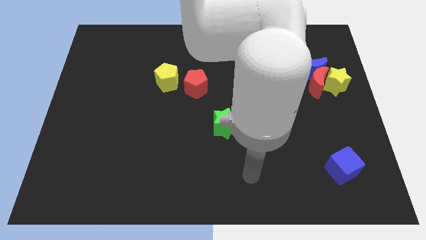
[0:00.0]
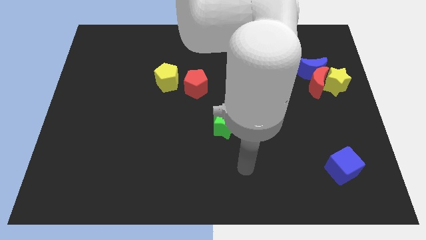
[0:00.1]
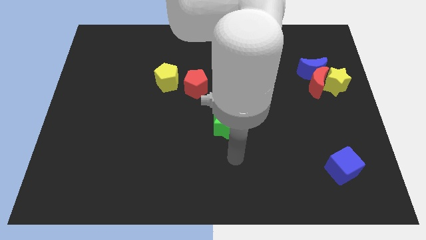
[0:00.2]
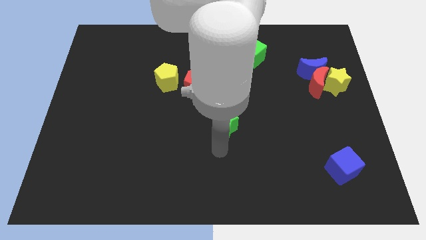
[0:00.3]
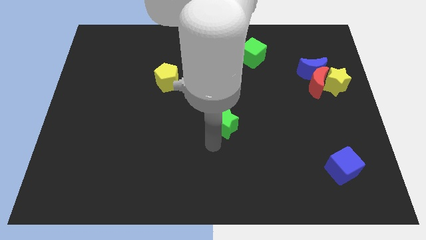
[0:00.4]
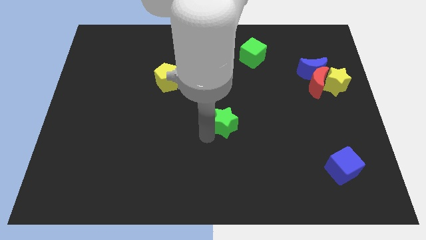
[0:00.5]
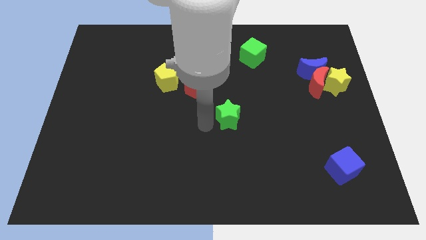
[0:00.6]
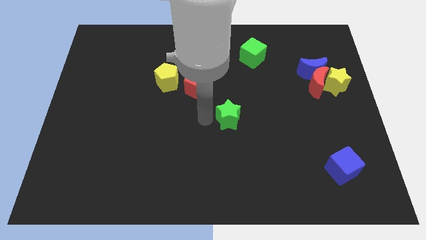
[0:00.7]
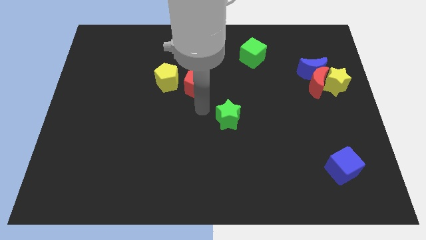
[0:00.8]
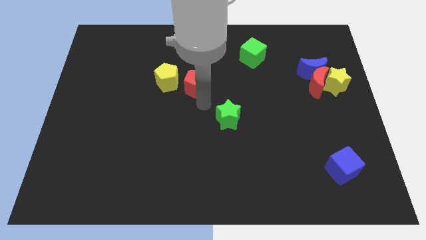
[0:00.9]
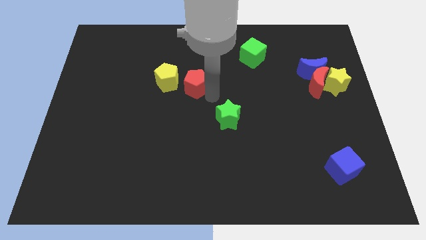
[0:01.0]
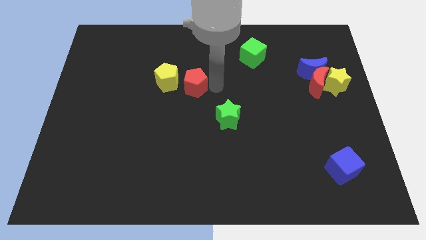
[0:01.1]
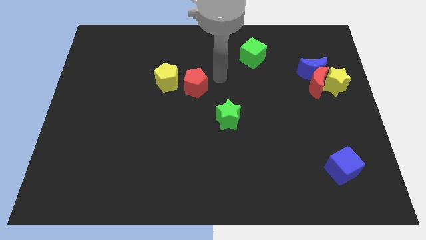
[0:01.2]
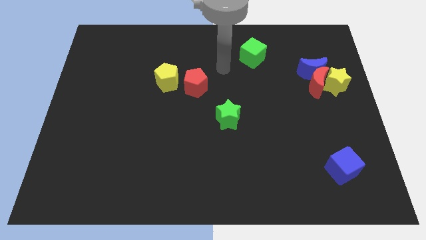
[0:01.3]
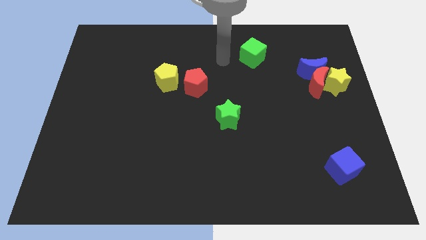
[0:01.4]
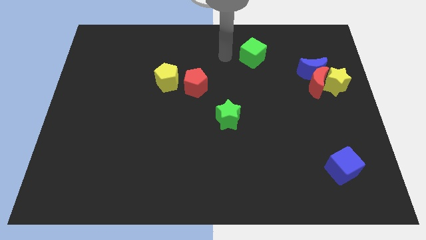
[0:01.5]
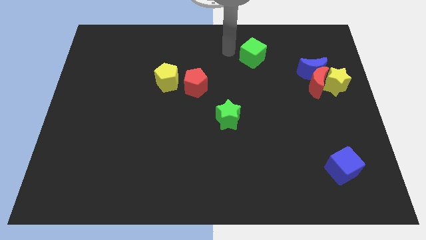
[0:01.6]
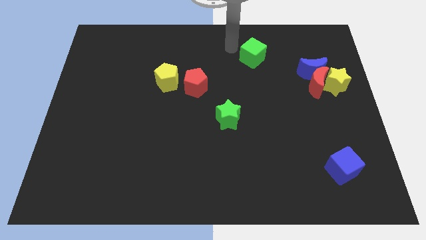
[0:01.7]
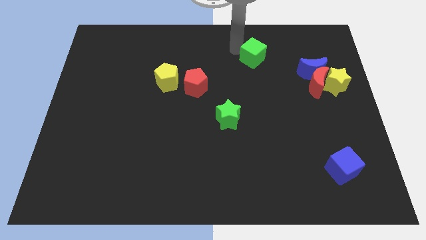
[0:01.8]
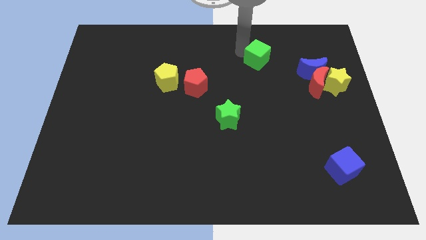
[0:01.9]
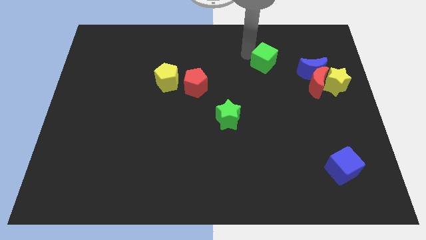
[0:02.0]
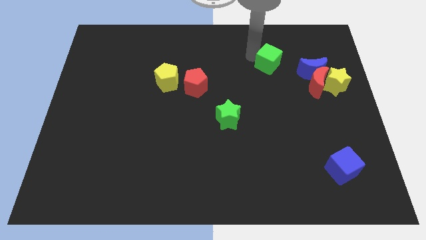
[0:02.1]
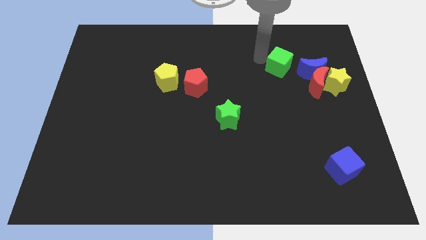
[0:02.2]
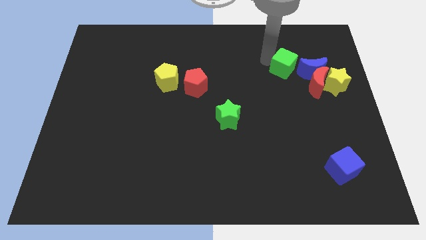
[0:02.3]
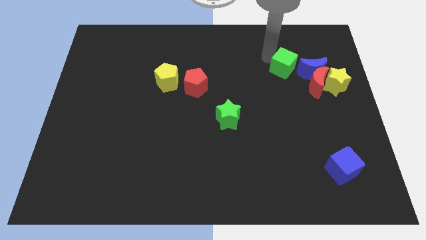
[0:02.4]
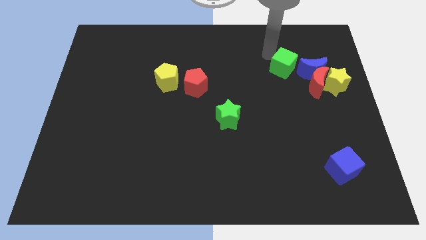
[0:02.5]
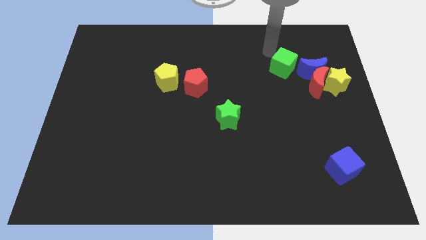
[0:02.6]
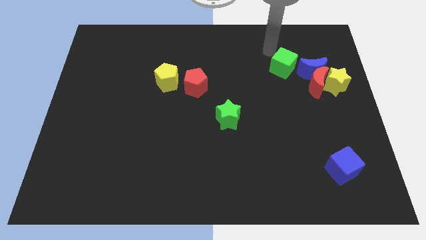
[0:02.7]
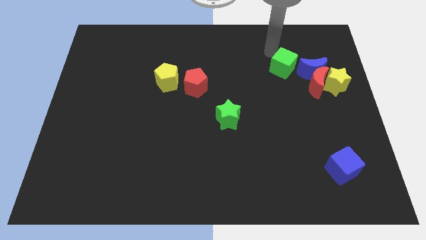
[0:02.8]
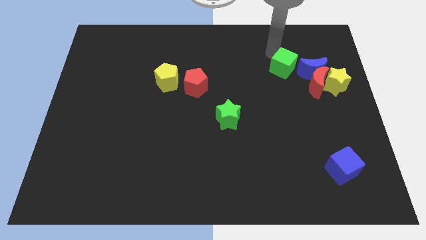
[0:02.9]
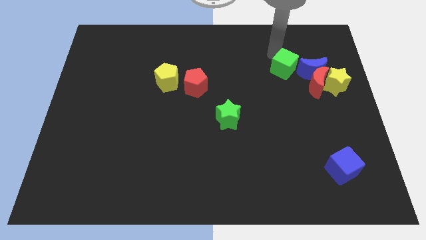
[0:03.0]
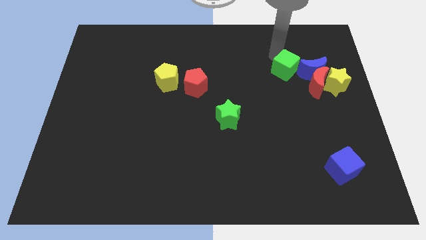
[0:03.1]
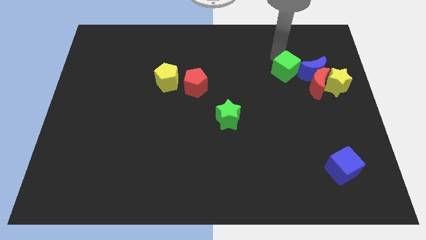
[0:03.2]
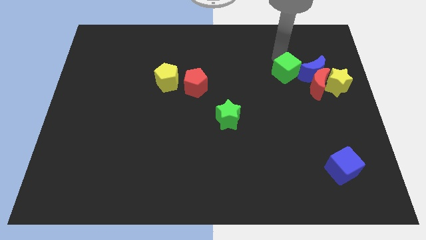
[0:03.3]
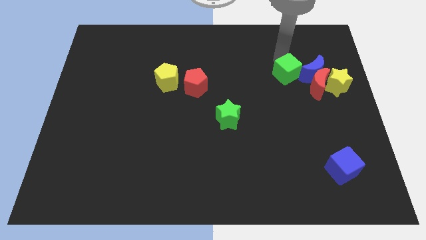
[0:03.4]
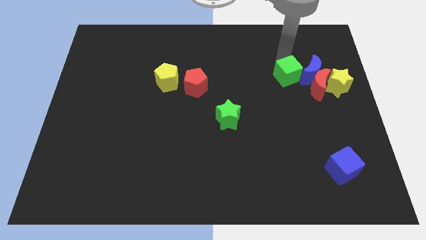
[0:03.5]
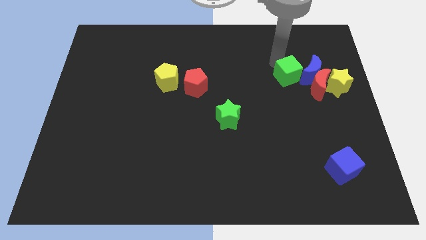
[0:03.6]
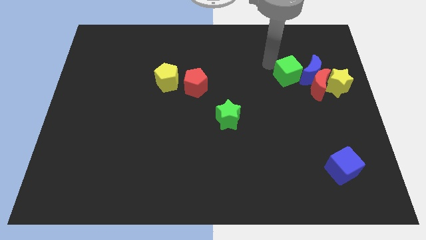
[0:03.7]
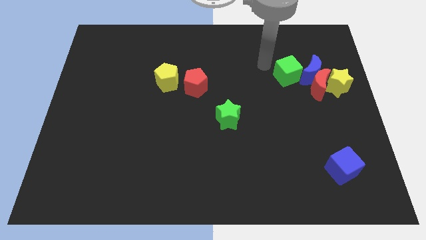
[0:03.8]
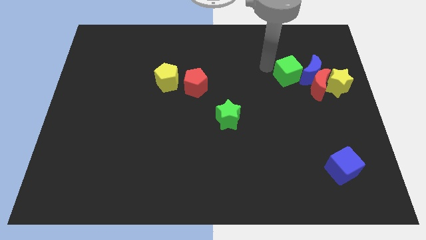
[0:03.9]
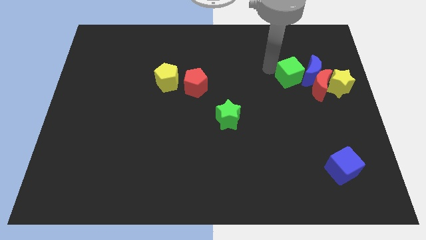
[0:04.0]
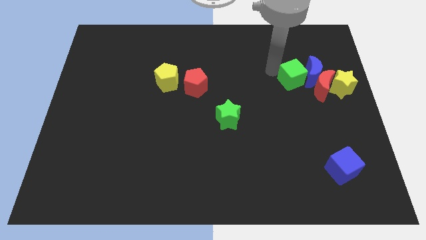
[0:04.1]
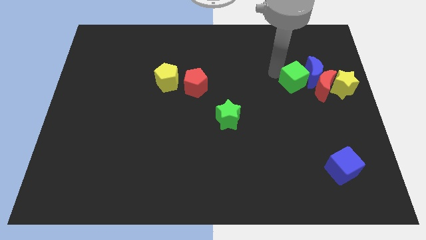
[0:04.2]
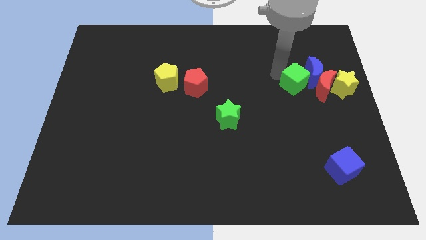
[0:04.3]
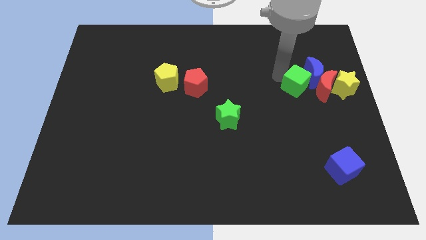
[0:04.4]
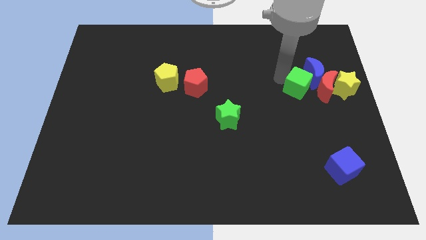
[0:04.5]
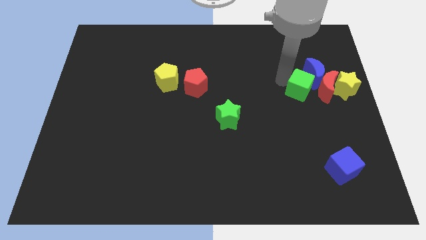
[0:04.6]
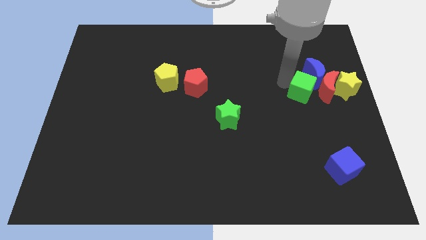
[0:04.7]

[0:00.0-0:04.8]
slide the green cube next to the red moon

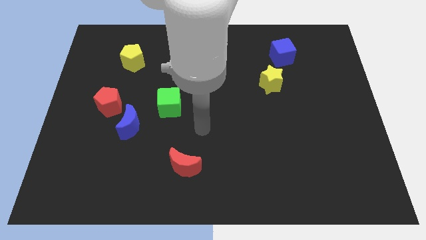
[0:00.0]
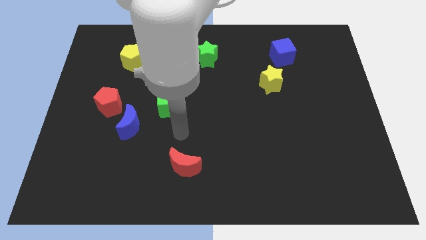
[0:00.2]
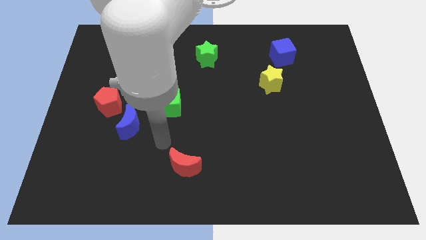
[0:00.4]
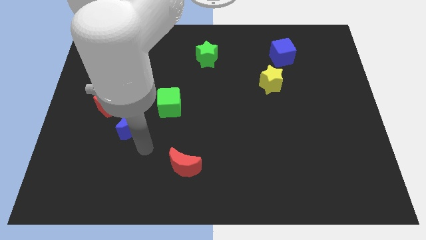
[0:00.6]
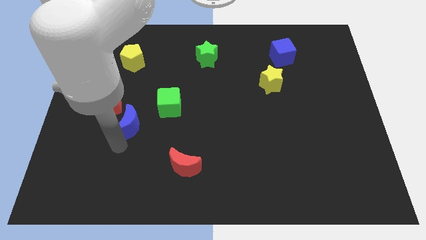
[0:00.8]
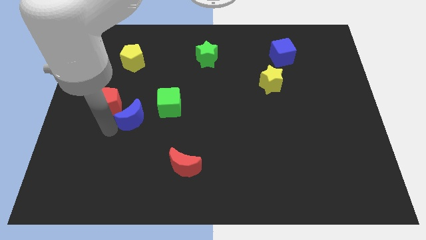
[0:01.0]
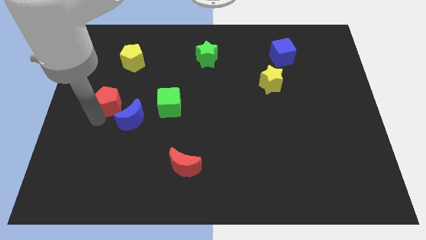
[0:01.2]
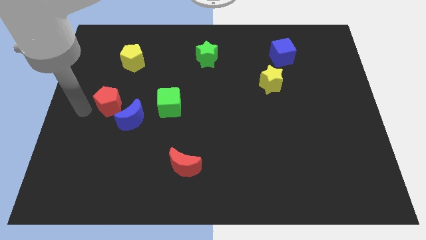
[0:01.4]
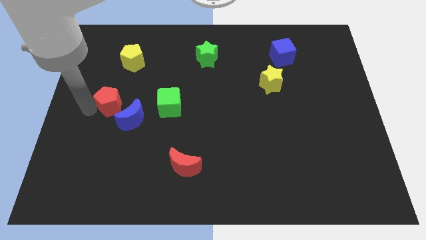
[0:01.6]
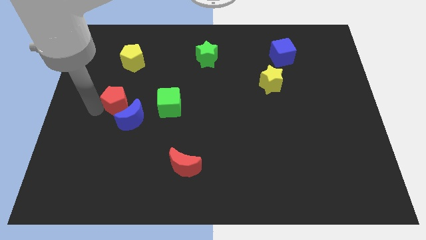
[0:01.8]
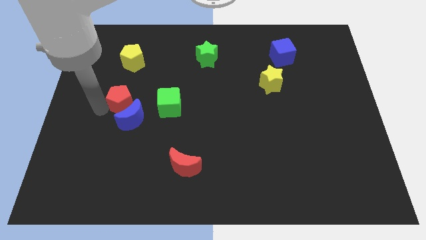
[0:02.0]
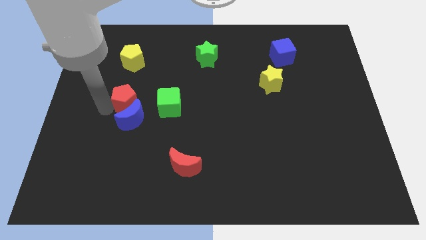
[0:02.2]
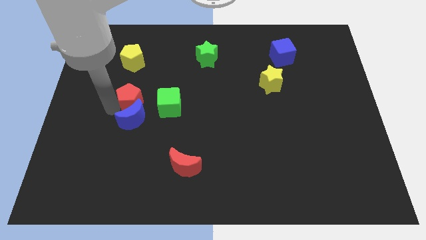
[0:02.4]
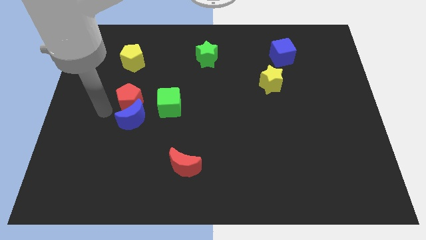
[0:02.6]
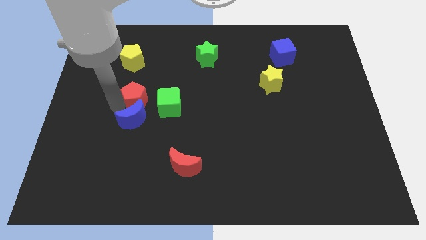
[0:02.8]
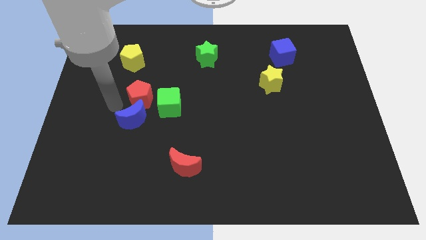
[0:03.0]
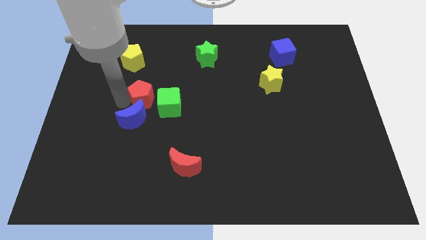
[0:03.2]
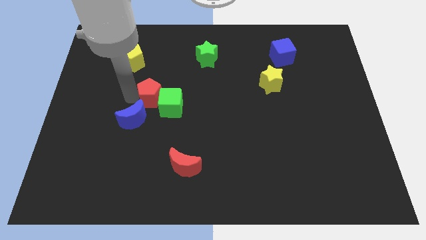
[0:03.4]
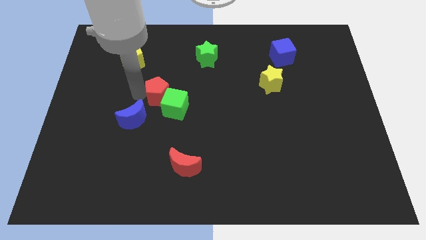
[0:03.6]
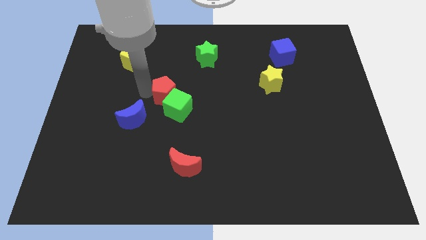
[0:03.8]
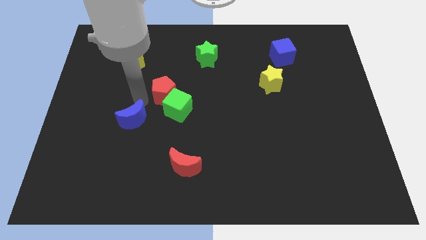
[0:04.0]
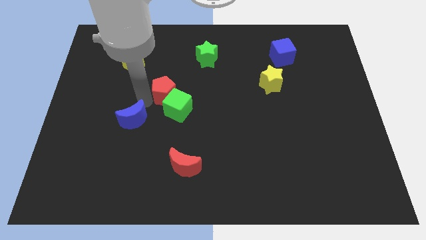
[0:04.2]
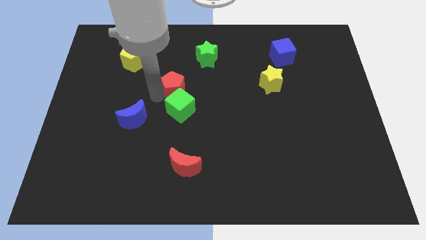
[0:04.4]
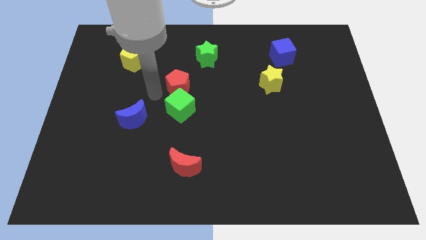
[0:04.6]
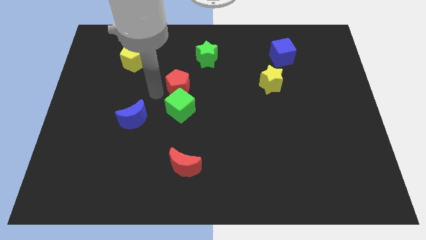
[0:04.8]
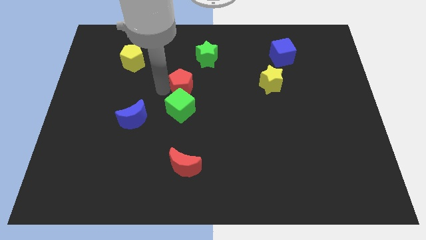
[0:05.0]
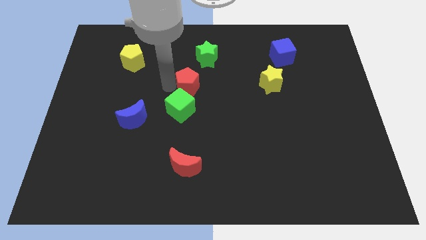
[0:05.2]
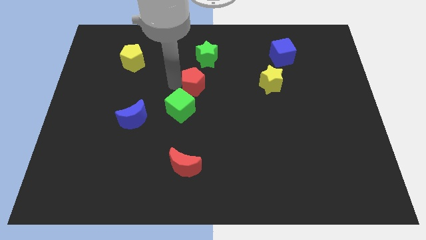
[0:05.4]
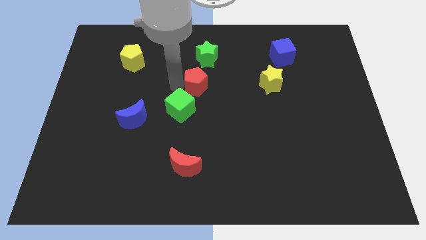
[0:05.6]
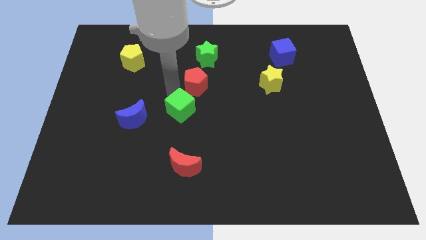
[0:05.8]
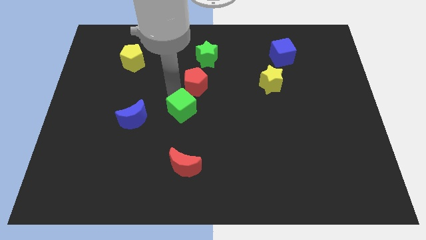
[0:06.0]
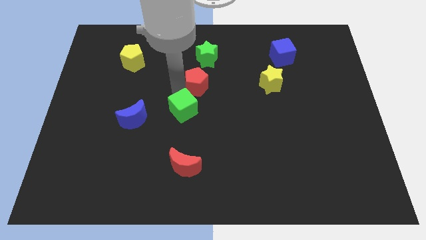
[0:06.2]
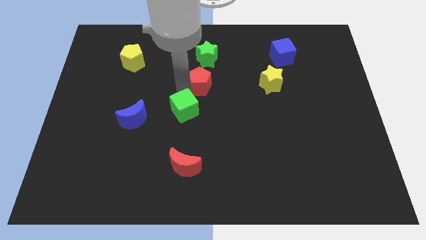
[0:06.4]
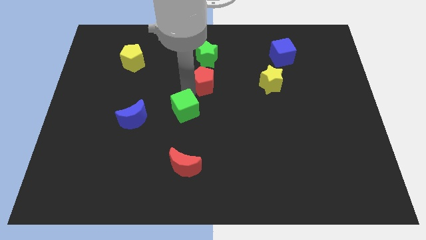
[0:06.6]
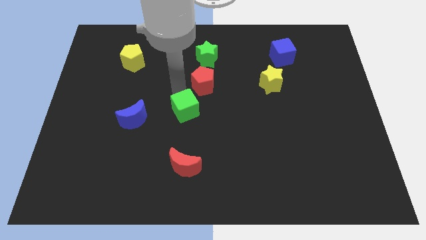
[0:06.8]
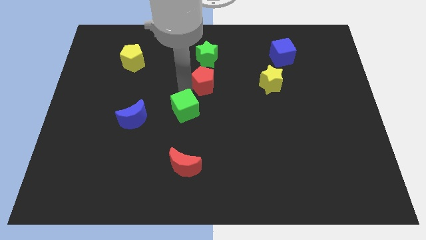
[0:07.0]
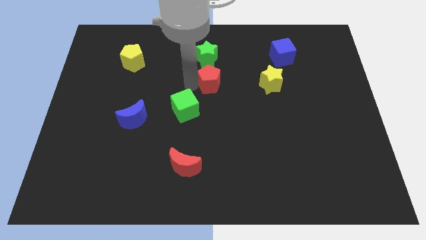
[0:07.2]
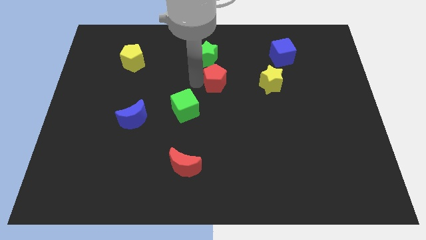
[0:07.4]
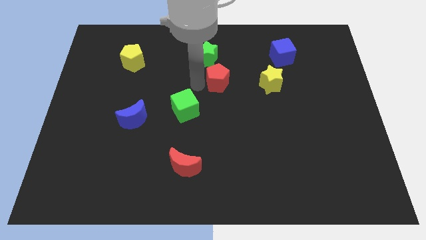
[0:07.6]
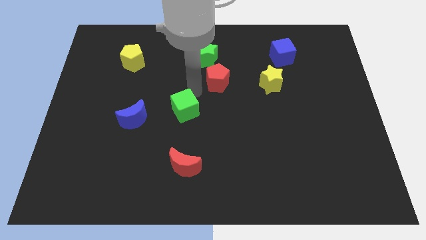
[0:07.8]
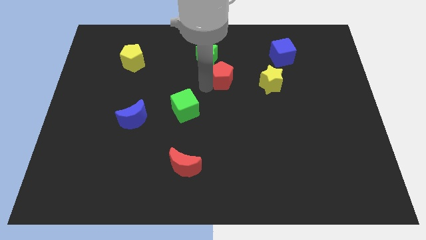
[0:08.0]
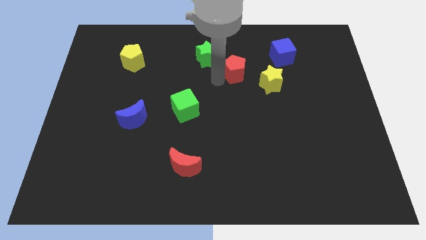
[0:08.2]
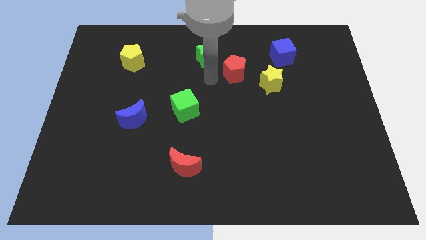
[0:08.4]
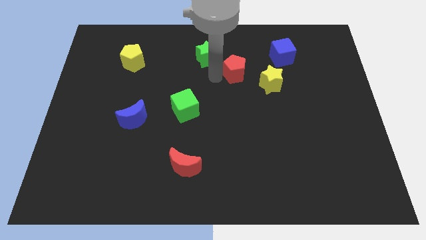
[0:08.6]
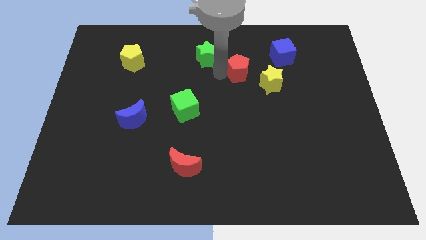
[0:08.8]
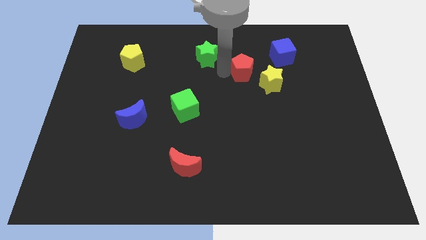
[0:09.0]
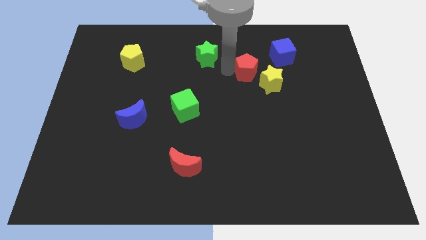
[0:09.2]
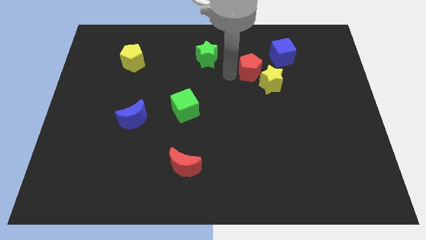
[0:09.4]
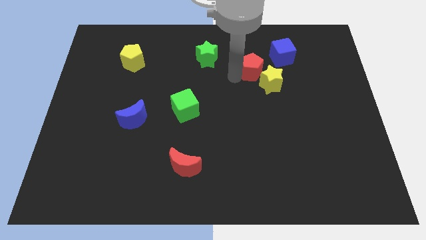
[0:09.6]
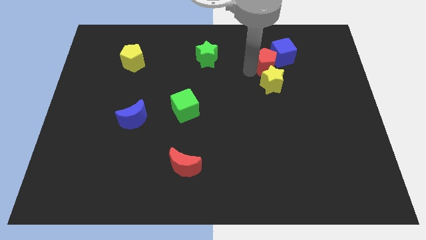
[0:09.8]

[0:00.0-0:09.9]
move the red pentagon towards the blue cube
